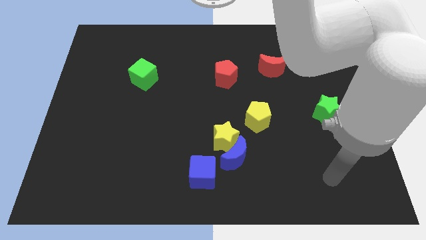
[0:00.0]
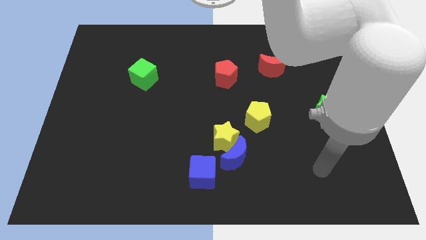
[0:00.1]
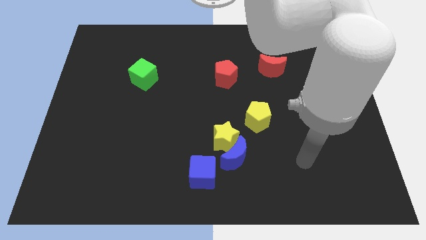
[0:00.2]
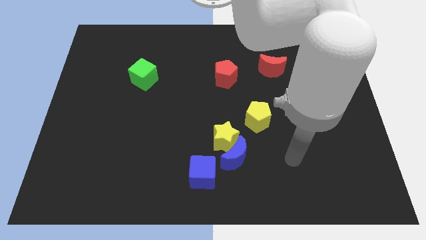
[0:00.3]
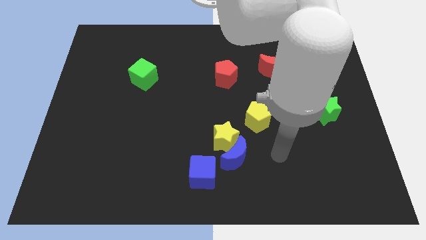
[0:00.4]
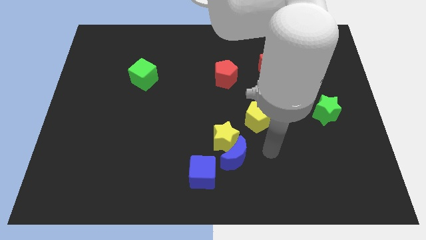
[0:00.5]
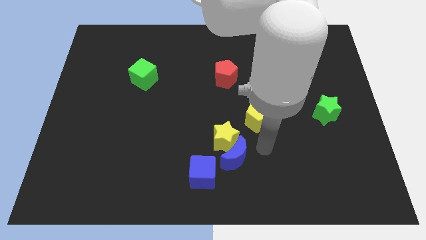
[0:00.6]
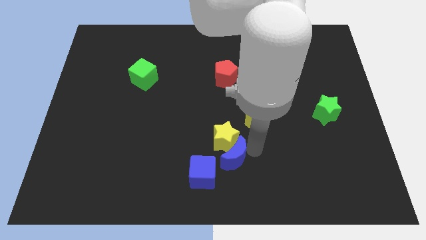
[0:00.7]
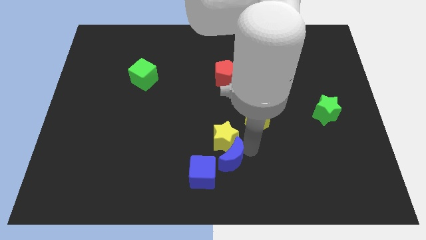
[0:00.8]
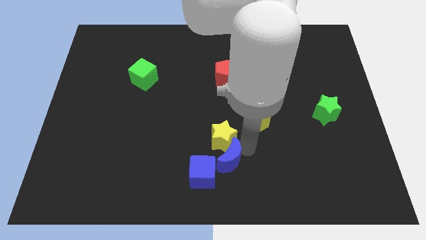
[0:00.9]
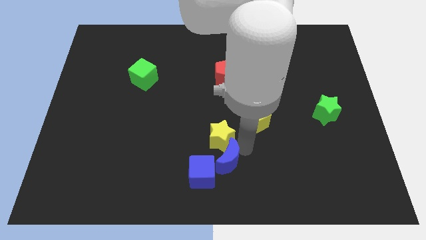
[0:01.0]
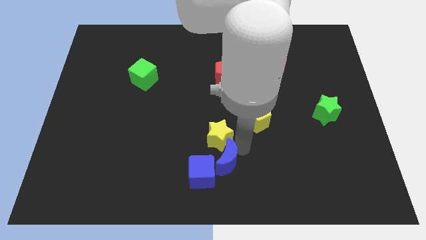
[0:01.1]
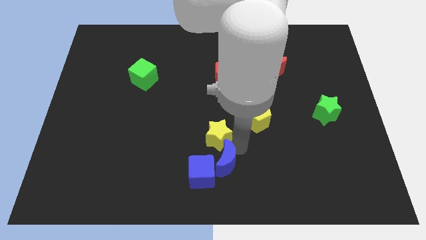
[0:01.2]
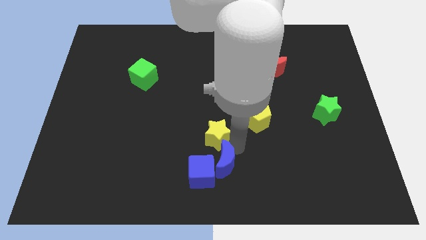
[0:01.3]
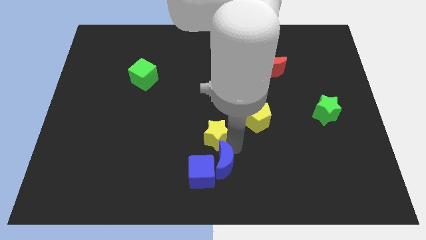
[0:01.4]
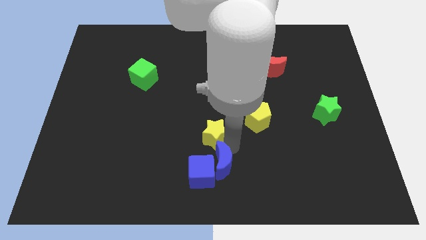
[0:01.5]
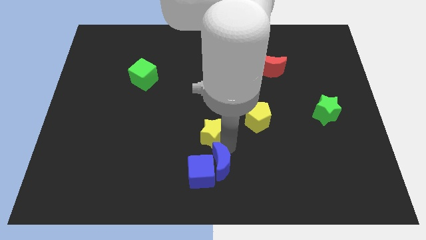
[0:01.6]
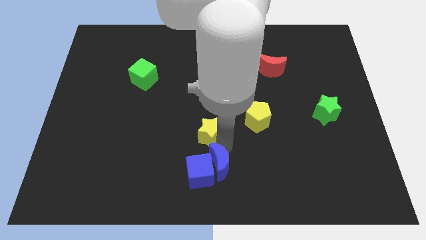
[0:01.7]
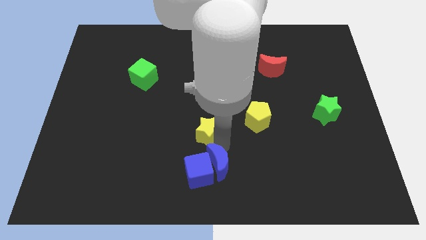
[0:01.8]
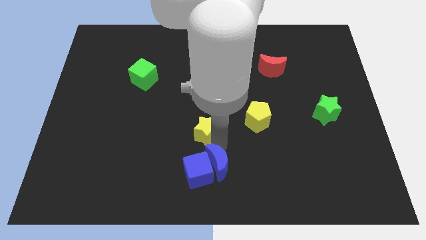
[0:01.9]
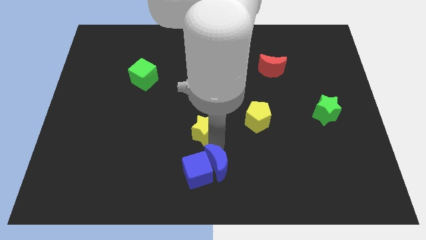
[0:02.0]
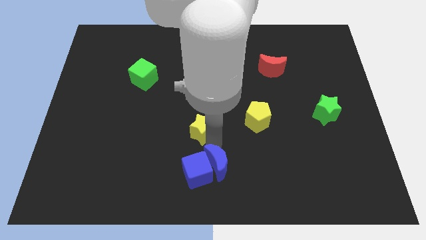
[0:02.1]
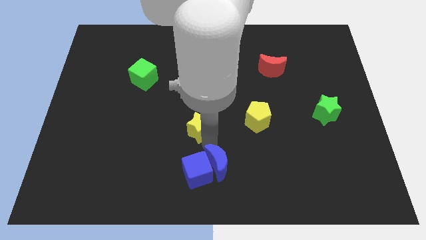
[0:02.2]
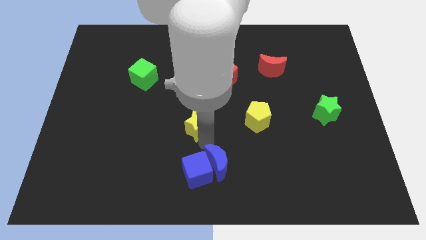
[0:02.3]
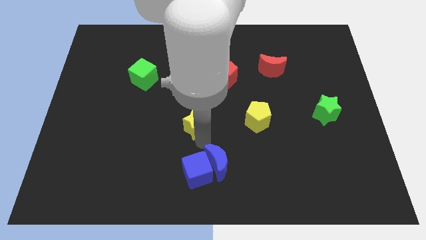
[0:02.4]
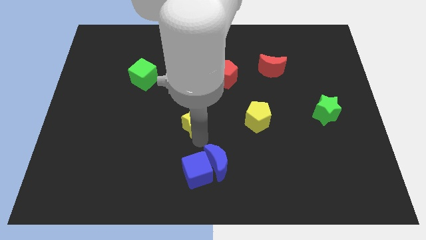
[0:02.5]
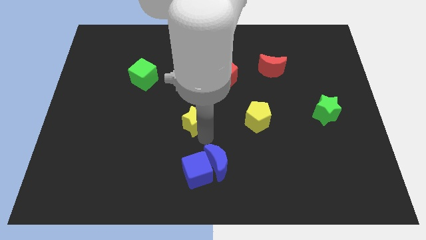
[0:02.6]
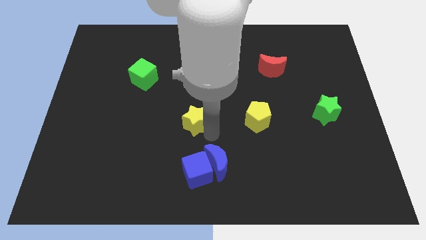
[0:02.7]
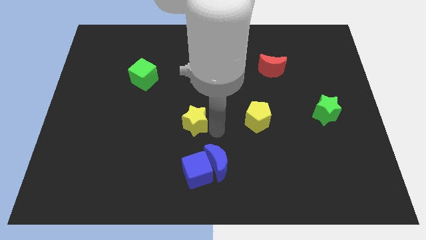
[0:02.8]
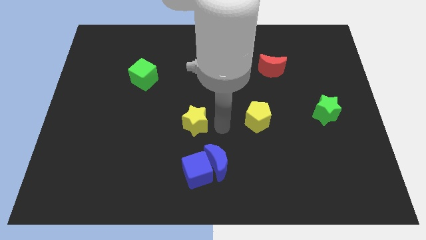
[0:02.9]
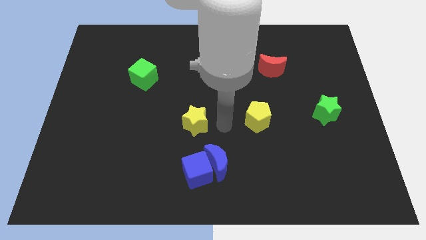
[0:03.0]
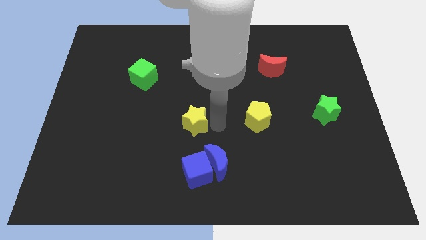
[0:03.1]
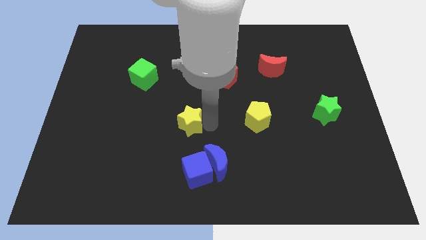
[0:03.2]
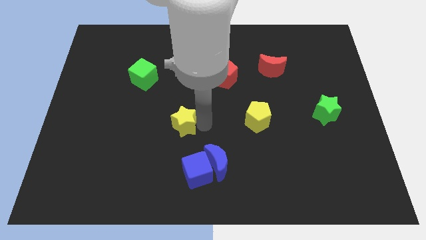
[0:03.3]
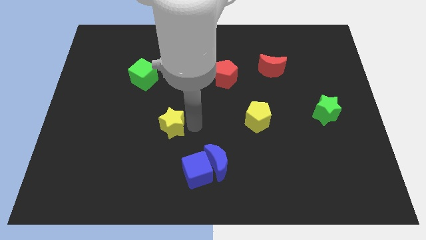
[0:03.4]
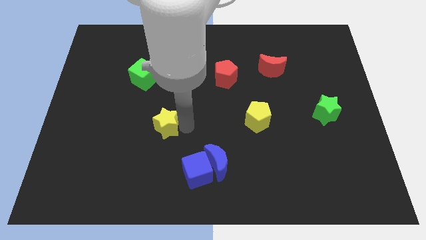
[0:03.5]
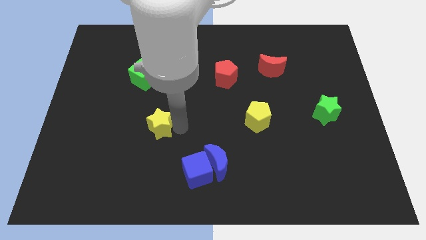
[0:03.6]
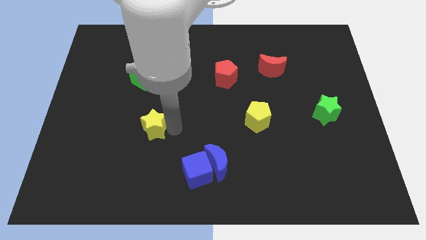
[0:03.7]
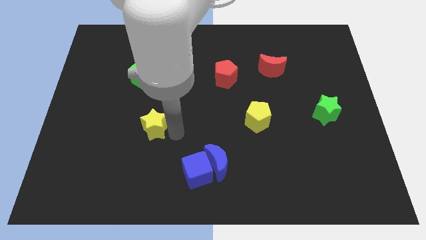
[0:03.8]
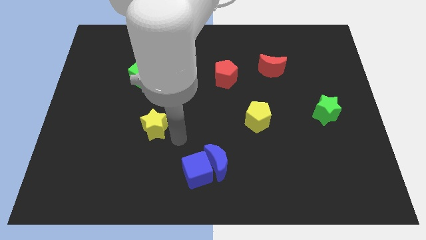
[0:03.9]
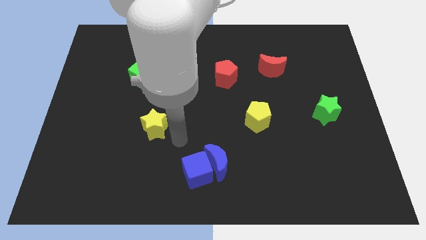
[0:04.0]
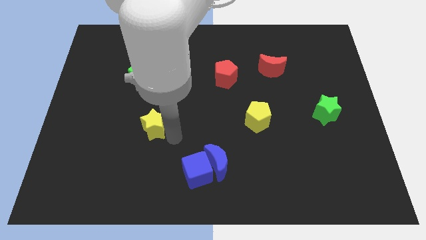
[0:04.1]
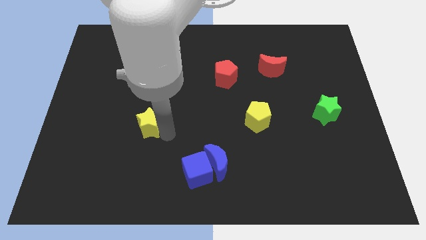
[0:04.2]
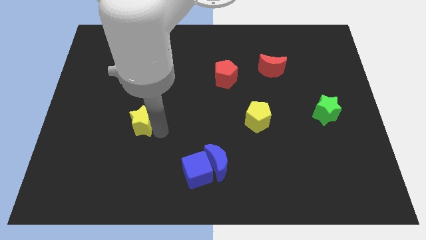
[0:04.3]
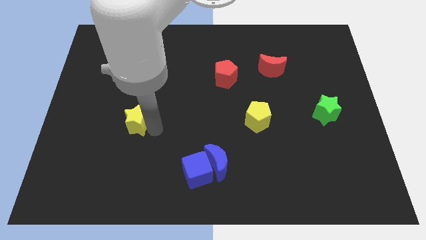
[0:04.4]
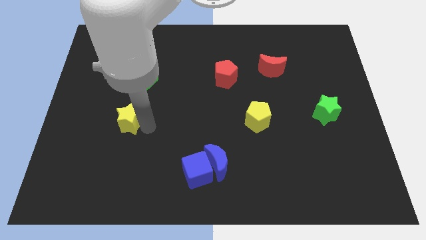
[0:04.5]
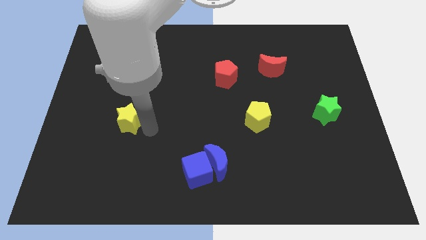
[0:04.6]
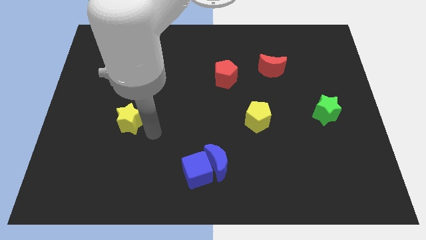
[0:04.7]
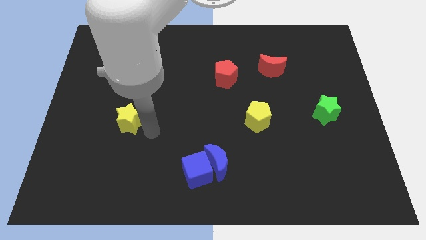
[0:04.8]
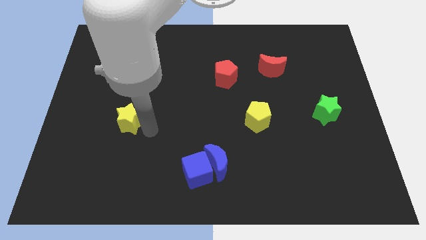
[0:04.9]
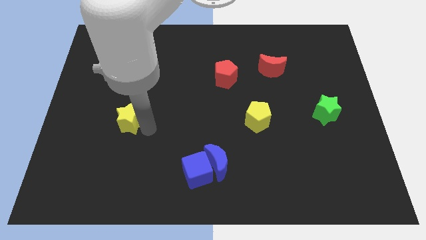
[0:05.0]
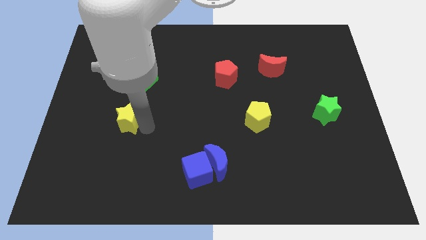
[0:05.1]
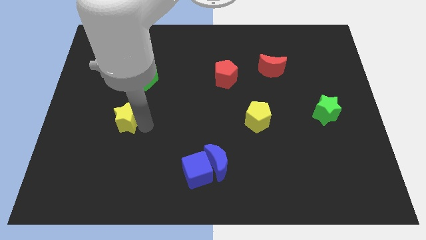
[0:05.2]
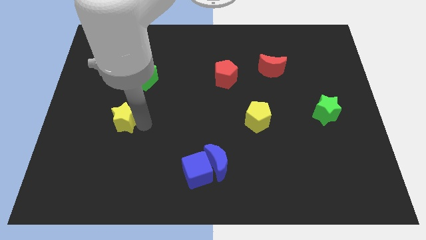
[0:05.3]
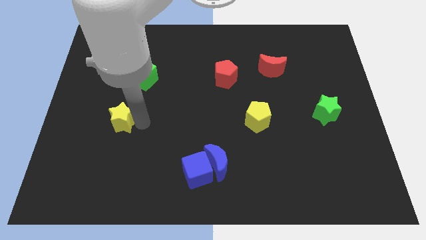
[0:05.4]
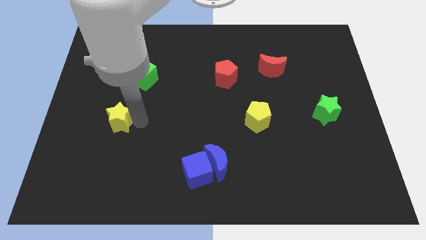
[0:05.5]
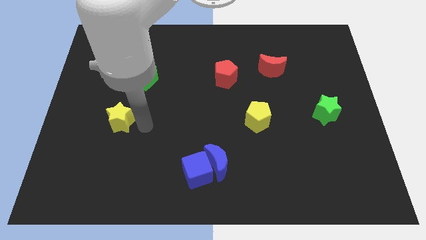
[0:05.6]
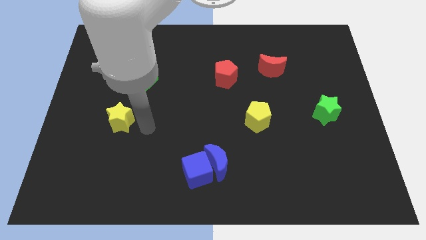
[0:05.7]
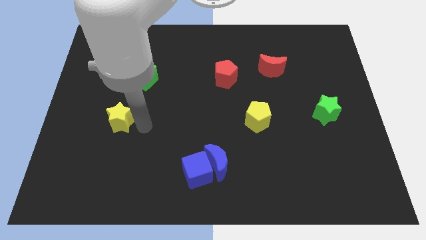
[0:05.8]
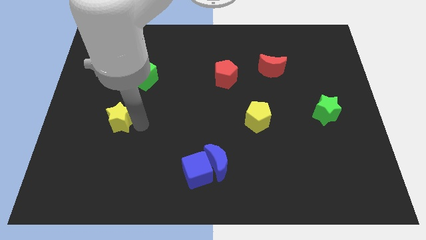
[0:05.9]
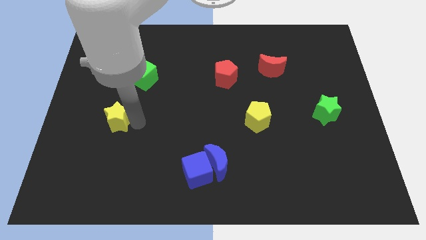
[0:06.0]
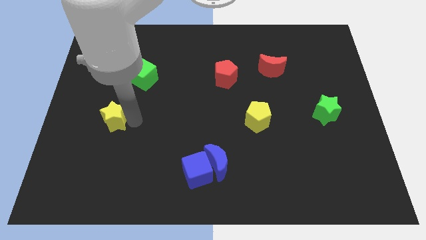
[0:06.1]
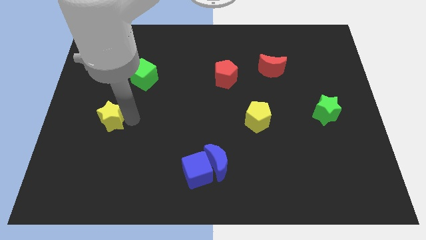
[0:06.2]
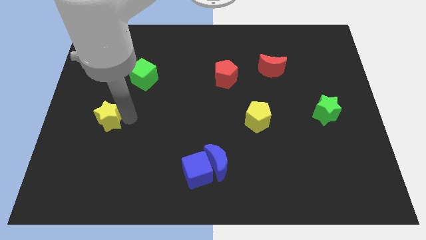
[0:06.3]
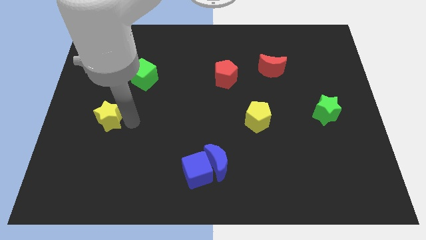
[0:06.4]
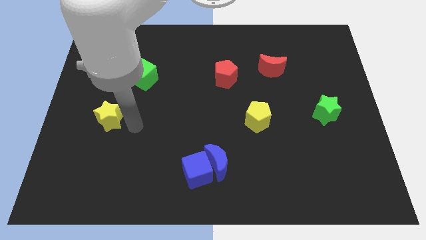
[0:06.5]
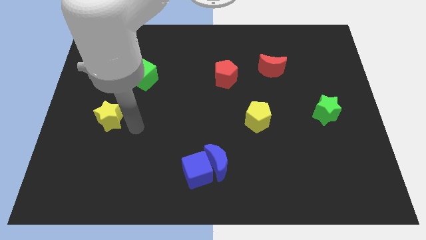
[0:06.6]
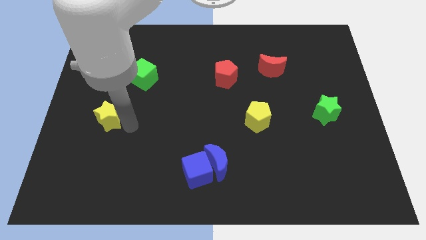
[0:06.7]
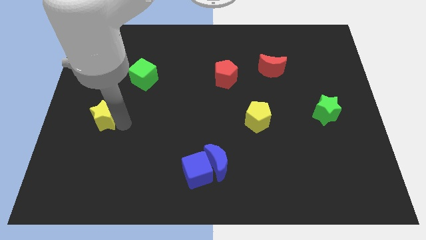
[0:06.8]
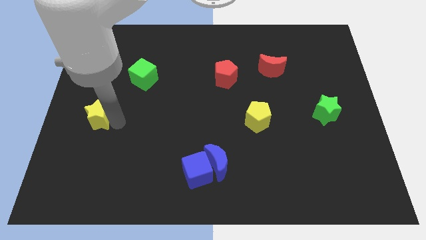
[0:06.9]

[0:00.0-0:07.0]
slide the yellow star to the left side
